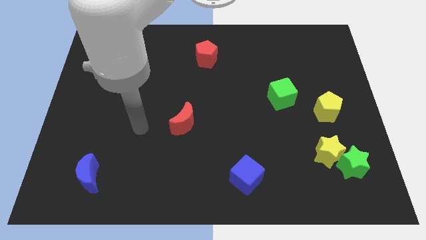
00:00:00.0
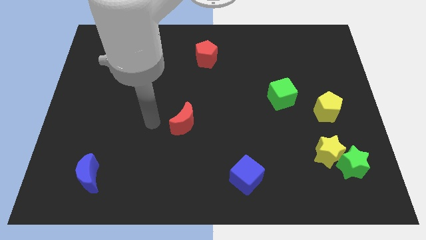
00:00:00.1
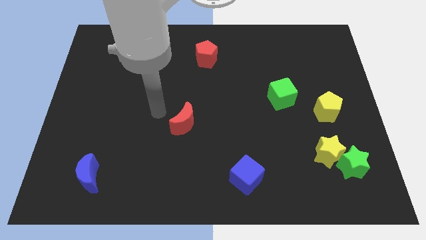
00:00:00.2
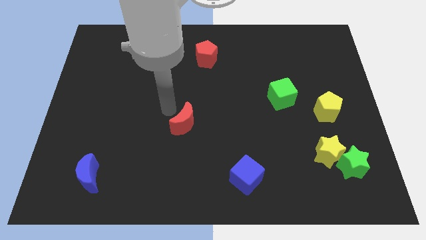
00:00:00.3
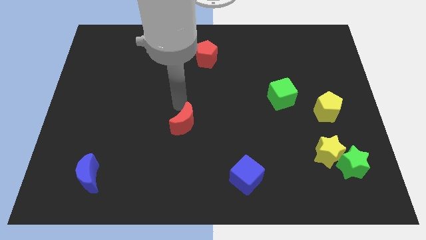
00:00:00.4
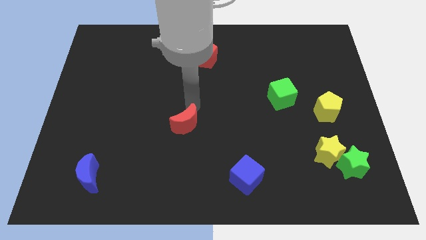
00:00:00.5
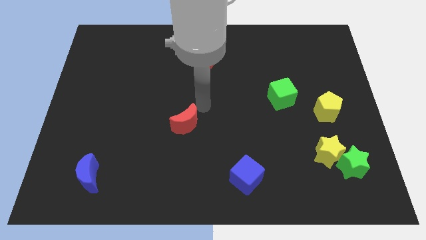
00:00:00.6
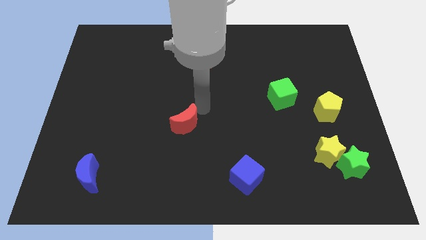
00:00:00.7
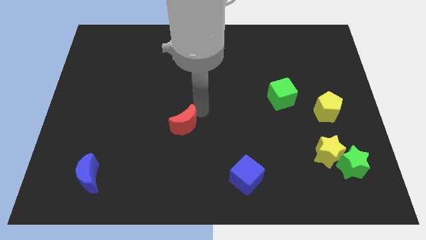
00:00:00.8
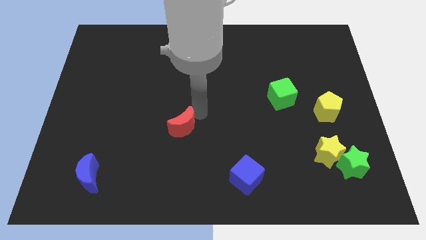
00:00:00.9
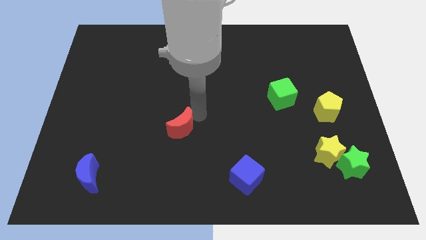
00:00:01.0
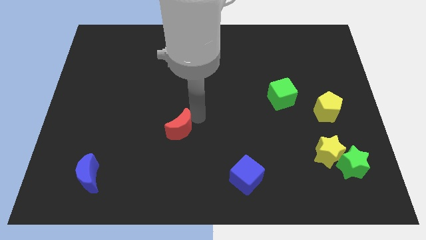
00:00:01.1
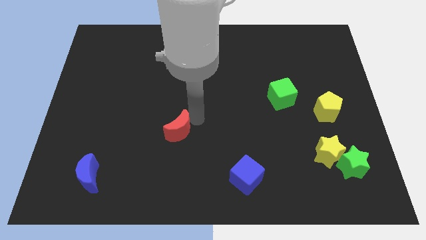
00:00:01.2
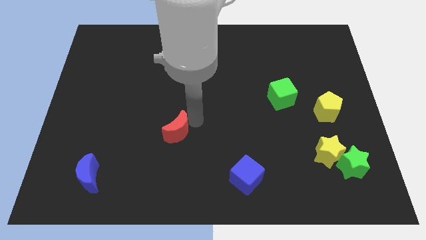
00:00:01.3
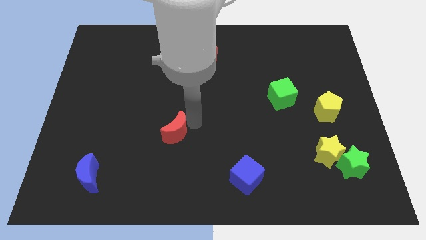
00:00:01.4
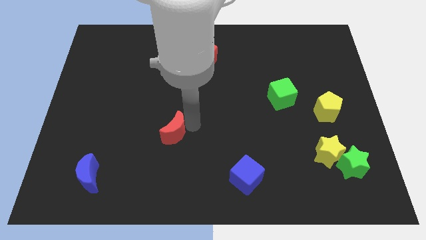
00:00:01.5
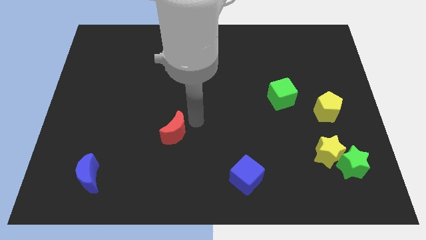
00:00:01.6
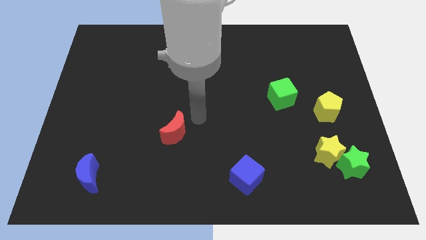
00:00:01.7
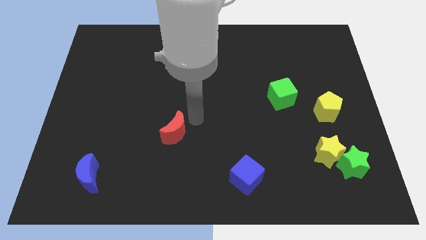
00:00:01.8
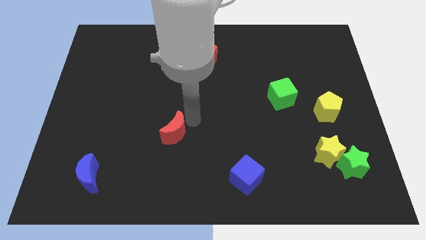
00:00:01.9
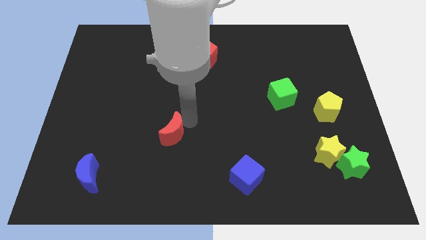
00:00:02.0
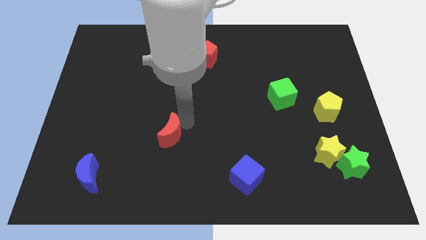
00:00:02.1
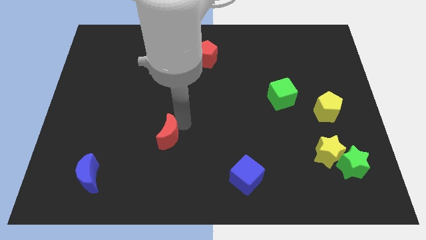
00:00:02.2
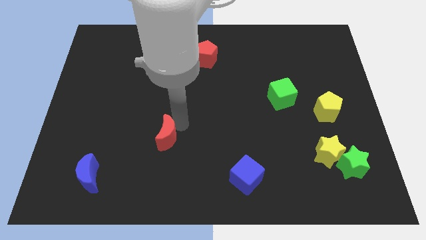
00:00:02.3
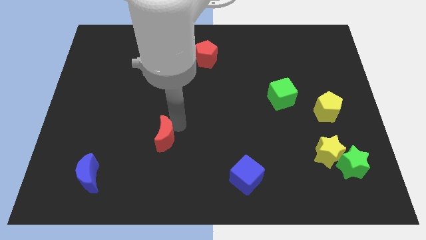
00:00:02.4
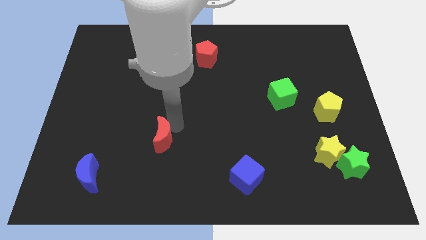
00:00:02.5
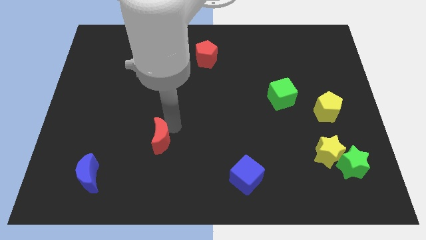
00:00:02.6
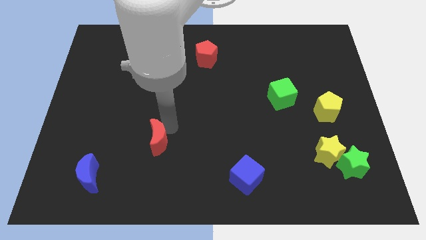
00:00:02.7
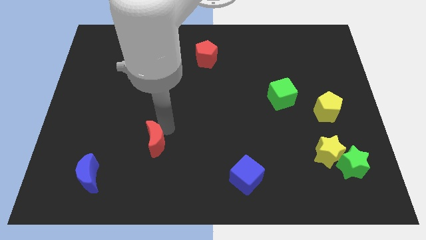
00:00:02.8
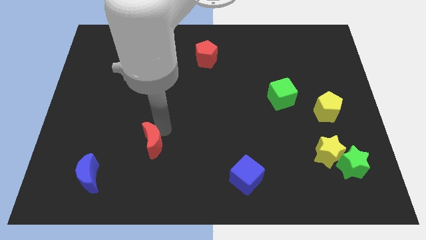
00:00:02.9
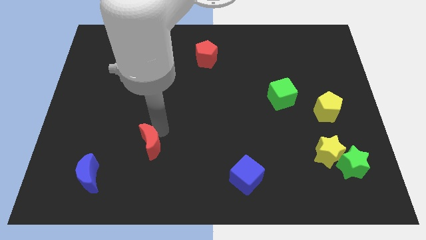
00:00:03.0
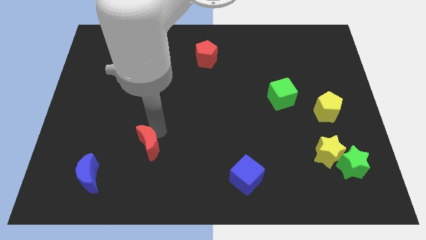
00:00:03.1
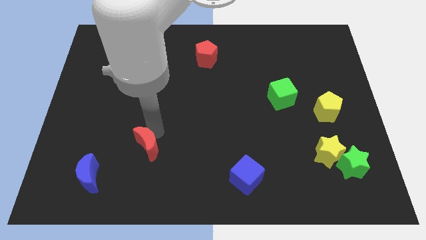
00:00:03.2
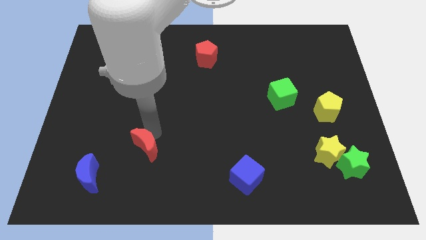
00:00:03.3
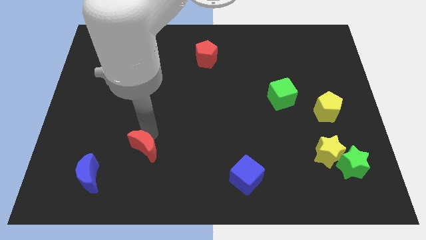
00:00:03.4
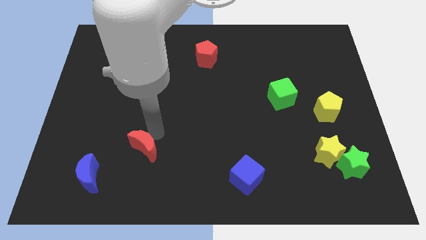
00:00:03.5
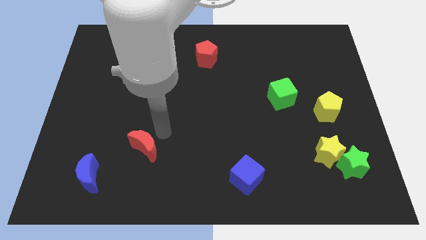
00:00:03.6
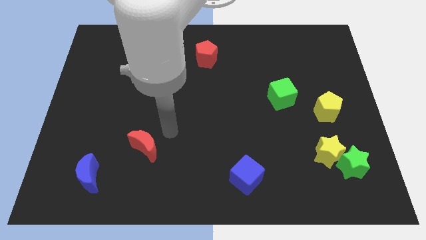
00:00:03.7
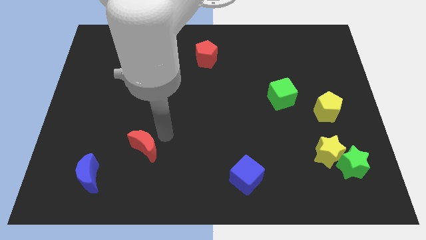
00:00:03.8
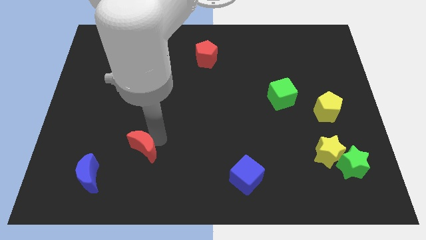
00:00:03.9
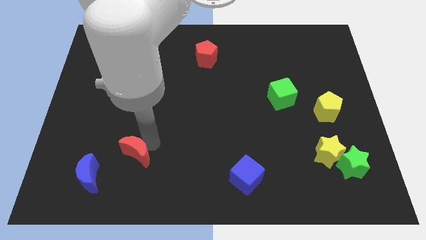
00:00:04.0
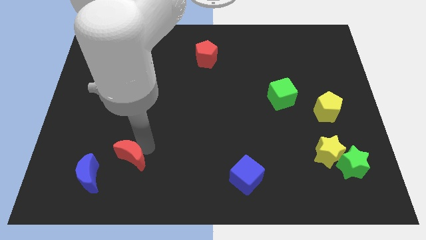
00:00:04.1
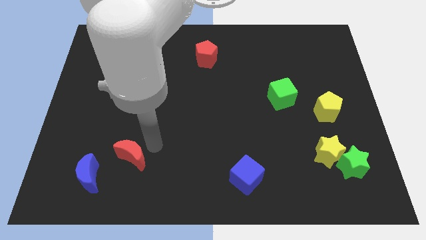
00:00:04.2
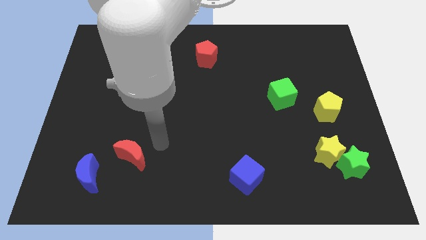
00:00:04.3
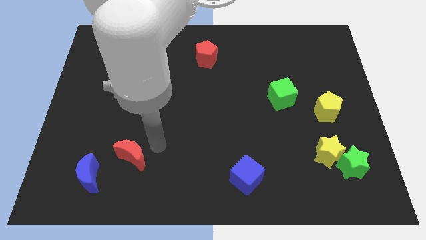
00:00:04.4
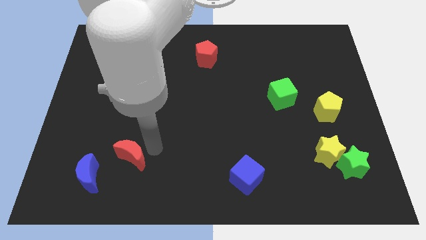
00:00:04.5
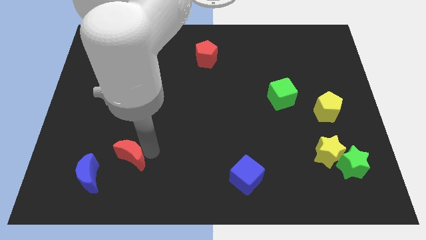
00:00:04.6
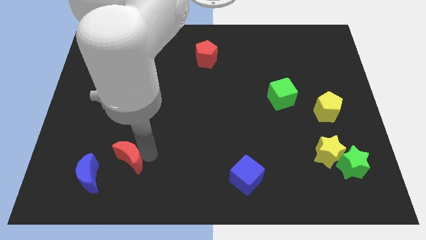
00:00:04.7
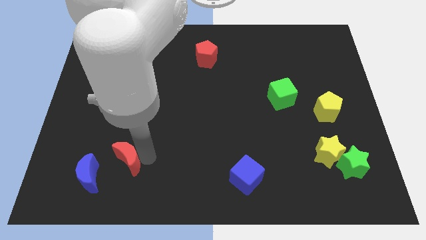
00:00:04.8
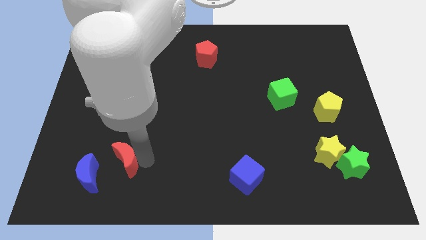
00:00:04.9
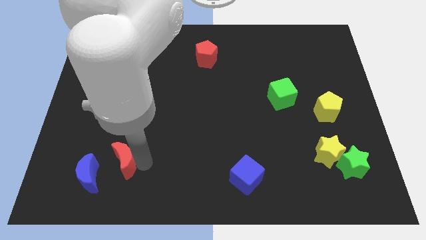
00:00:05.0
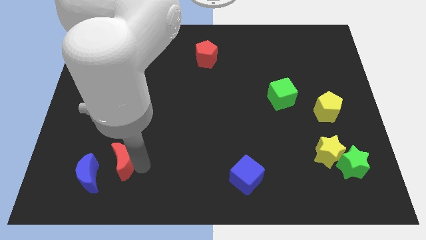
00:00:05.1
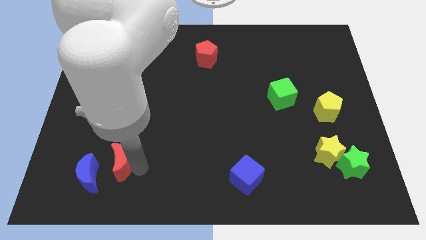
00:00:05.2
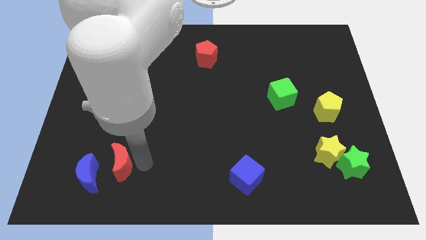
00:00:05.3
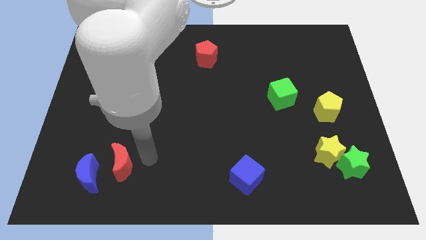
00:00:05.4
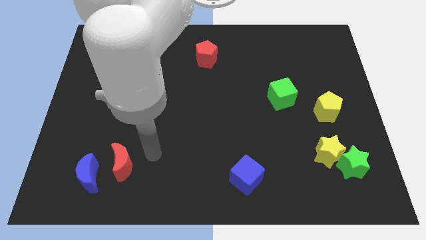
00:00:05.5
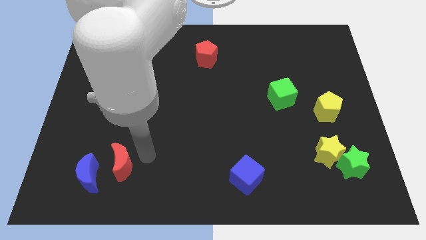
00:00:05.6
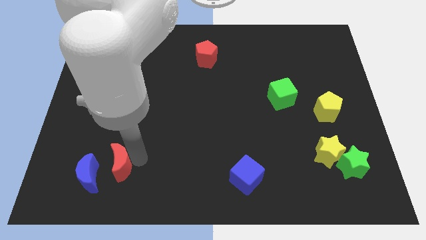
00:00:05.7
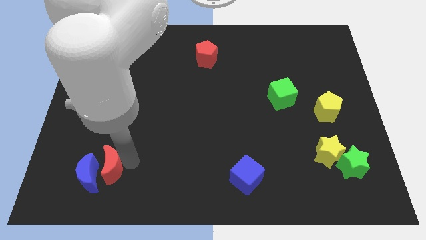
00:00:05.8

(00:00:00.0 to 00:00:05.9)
push the red moon towards the blue moon

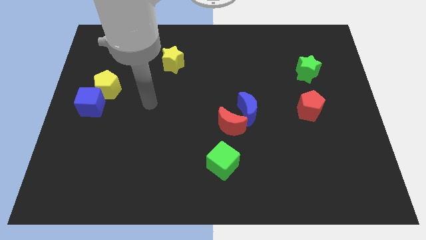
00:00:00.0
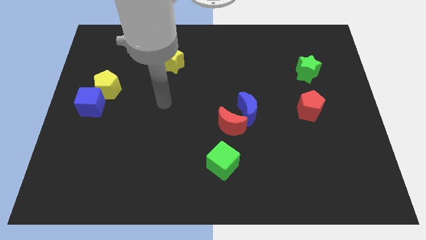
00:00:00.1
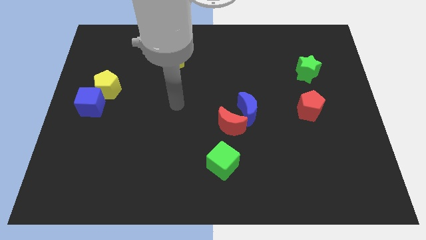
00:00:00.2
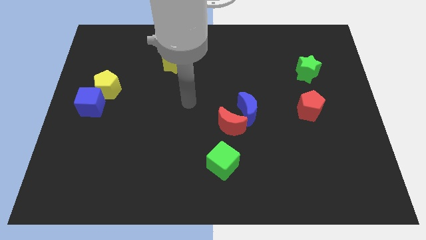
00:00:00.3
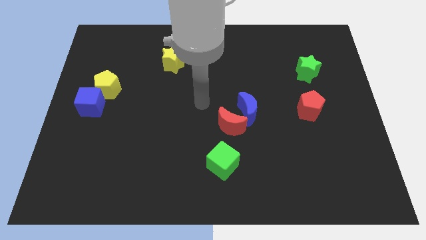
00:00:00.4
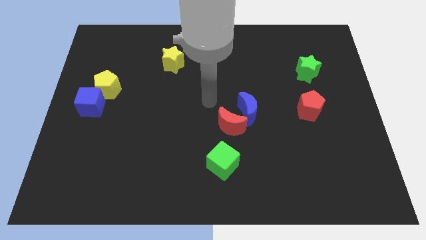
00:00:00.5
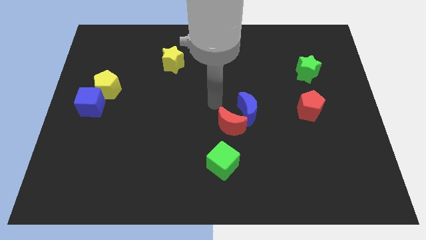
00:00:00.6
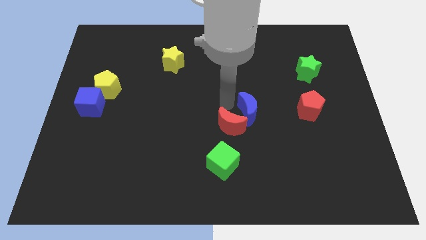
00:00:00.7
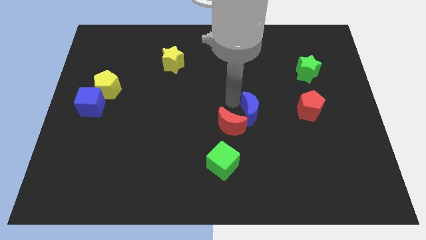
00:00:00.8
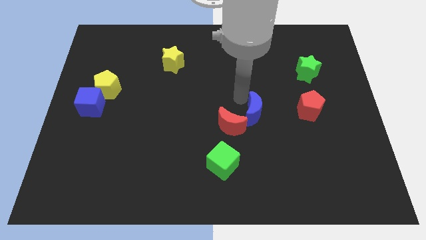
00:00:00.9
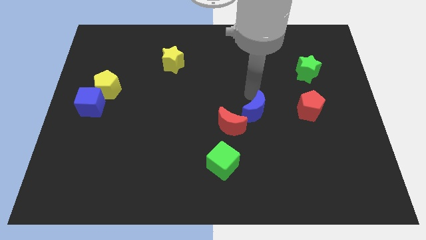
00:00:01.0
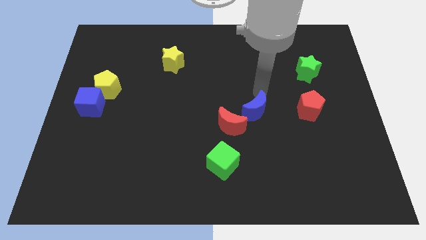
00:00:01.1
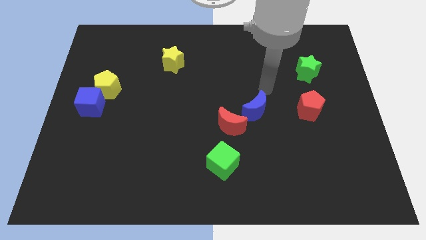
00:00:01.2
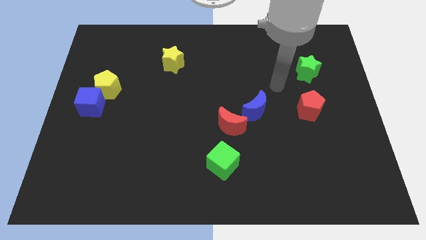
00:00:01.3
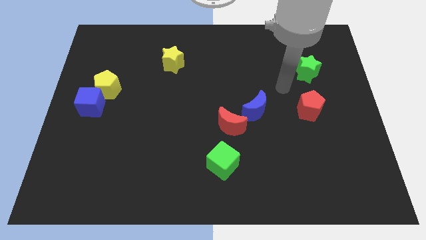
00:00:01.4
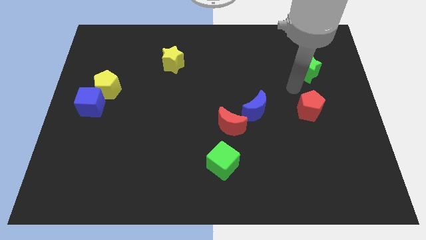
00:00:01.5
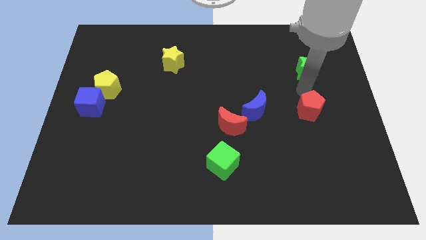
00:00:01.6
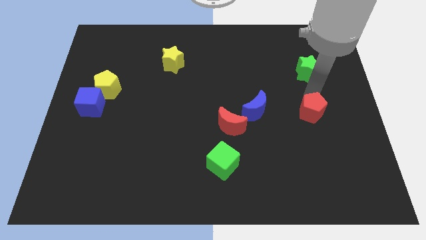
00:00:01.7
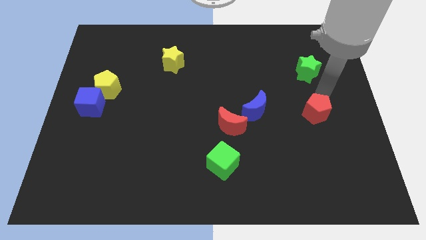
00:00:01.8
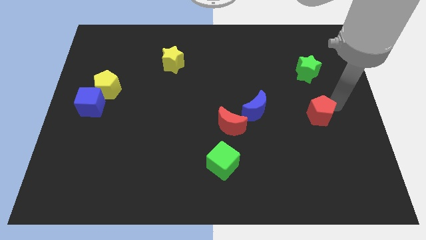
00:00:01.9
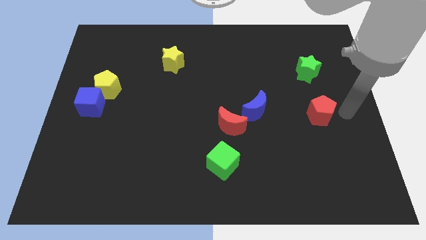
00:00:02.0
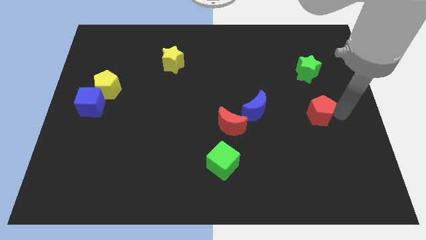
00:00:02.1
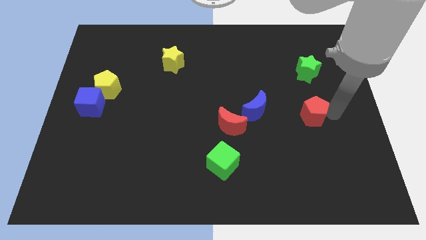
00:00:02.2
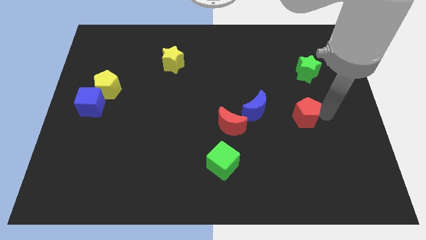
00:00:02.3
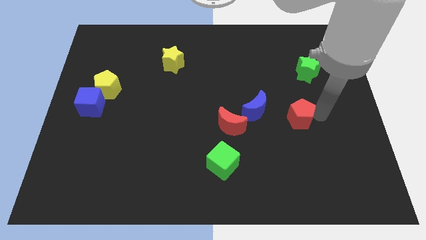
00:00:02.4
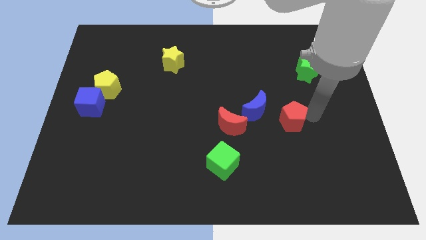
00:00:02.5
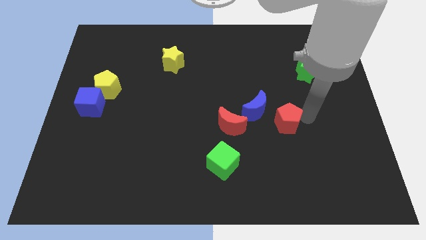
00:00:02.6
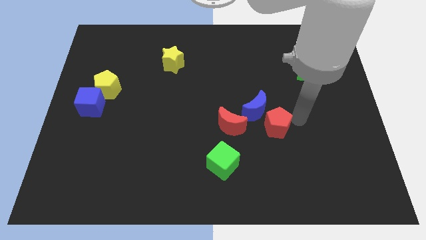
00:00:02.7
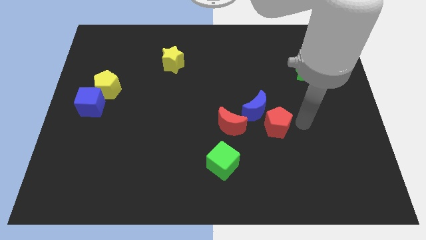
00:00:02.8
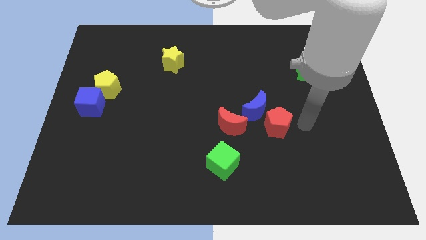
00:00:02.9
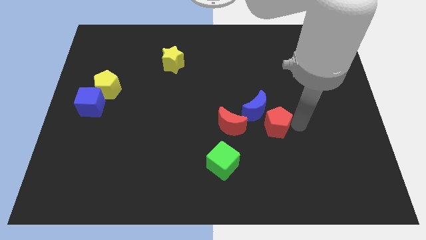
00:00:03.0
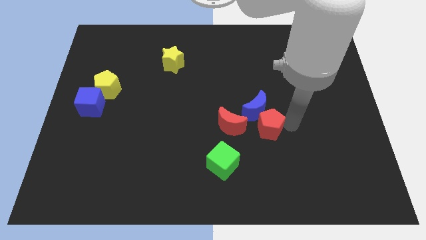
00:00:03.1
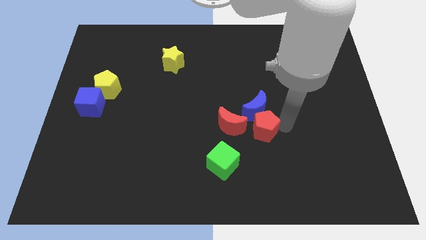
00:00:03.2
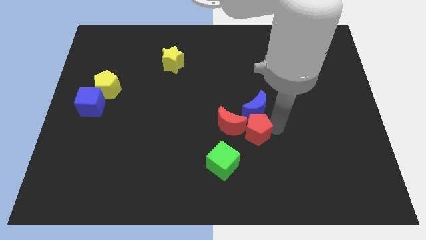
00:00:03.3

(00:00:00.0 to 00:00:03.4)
put the red pentagon to the red moon
